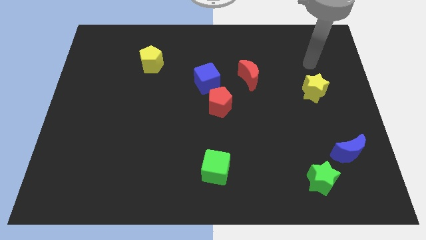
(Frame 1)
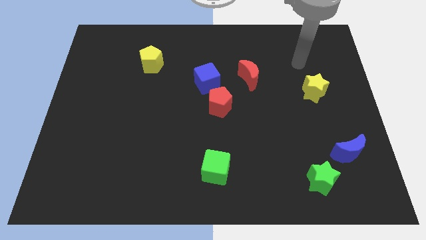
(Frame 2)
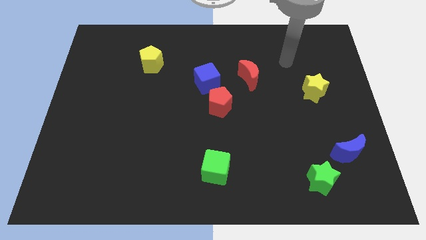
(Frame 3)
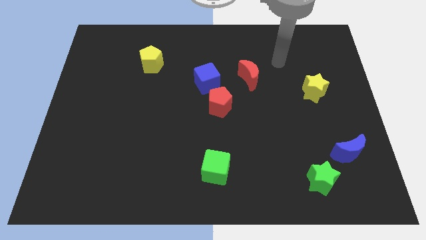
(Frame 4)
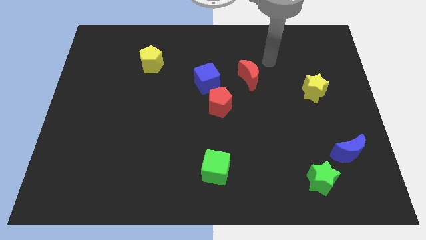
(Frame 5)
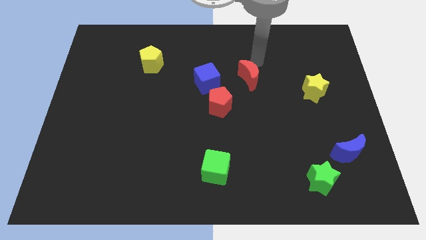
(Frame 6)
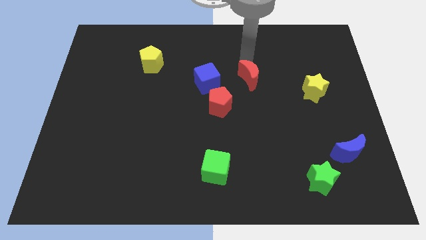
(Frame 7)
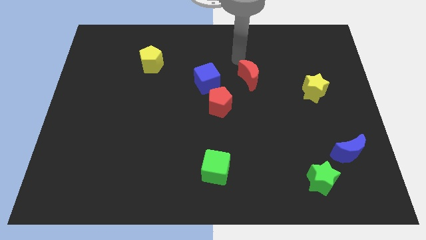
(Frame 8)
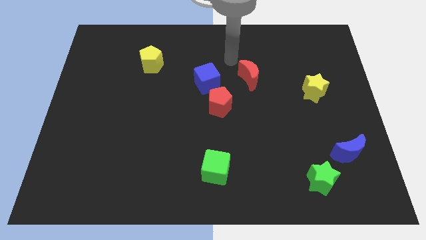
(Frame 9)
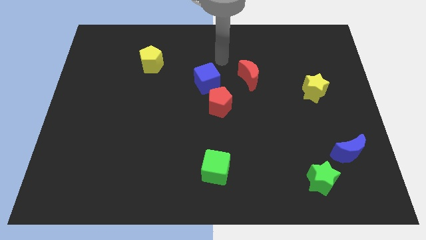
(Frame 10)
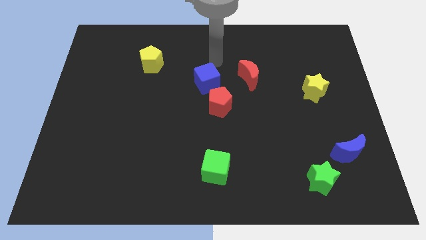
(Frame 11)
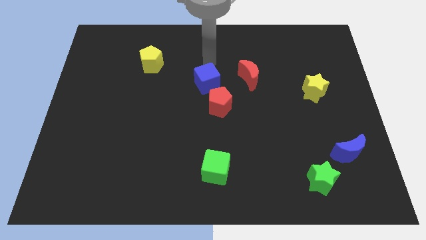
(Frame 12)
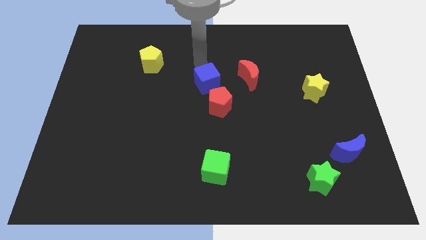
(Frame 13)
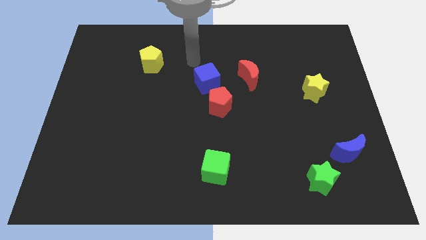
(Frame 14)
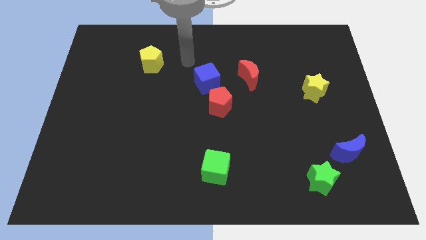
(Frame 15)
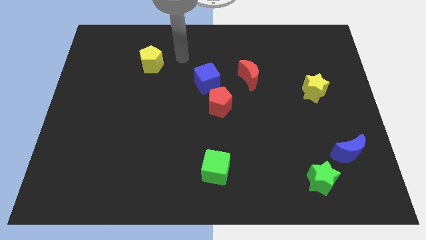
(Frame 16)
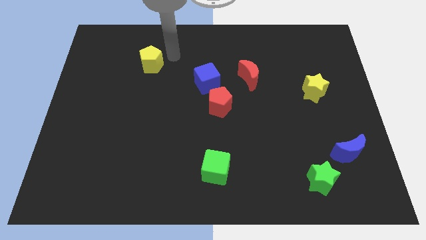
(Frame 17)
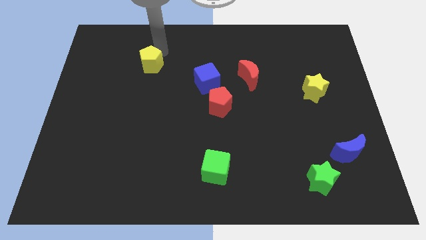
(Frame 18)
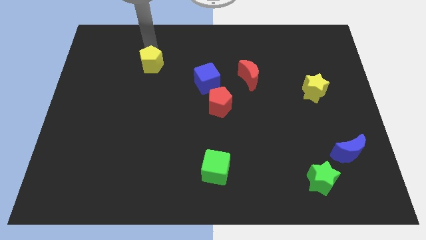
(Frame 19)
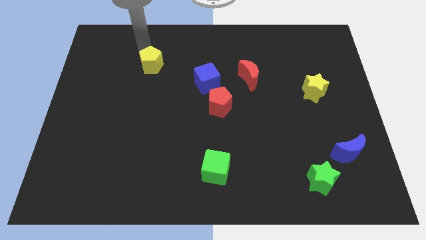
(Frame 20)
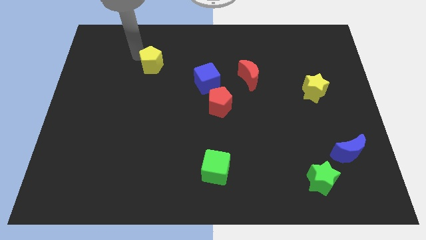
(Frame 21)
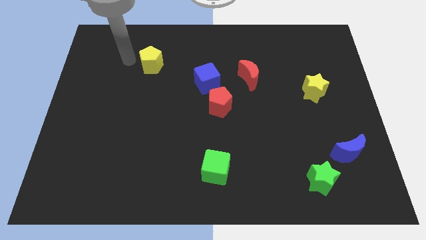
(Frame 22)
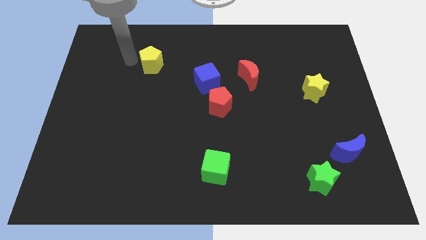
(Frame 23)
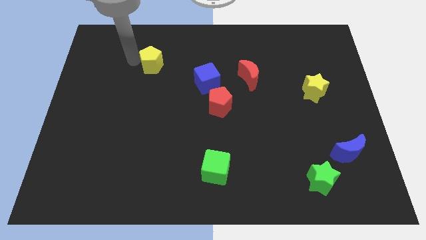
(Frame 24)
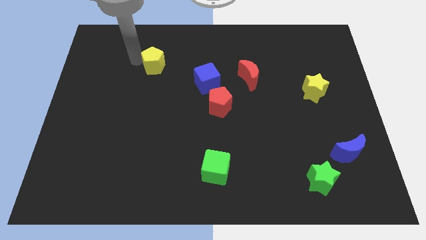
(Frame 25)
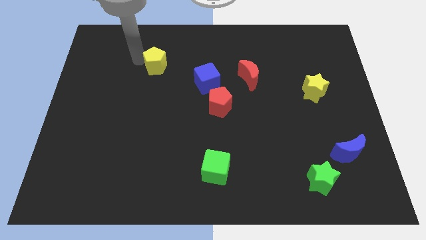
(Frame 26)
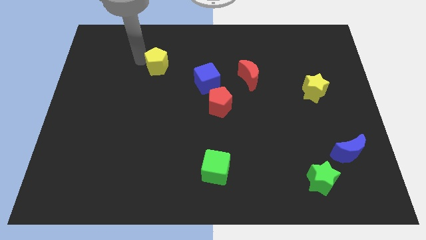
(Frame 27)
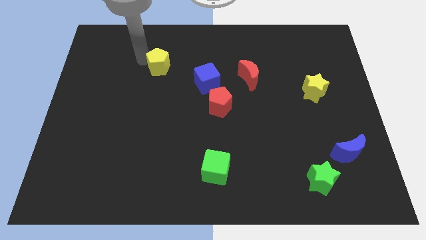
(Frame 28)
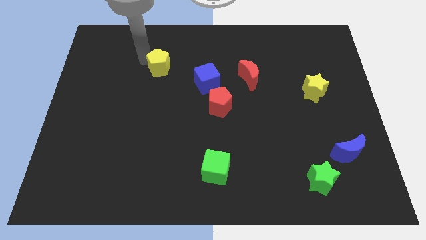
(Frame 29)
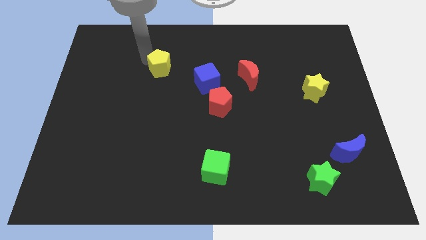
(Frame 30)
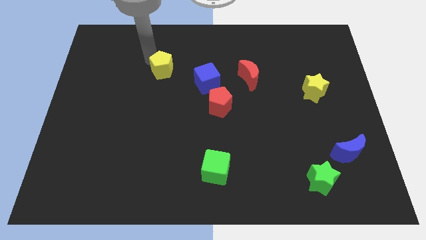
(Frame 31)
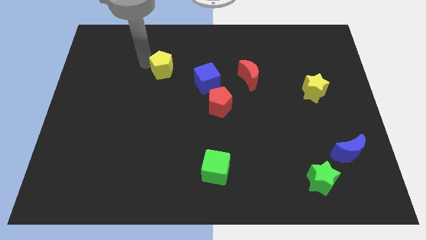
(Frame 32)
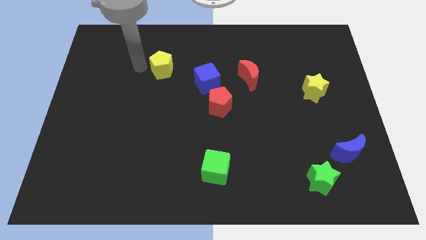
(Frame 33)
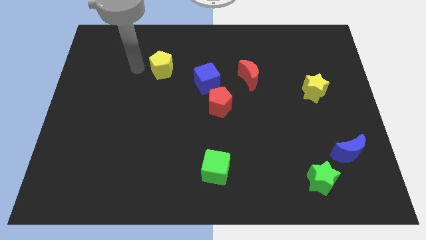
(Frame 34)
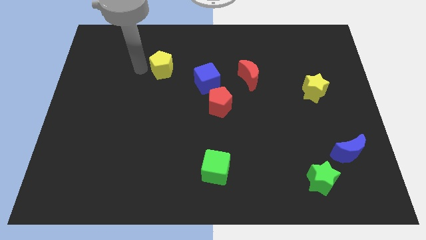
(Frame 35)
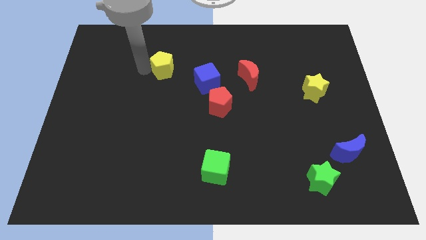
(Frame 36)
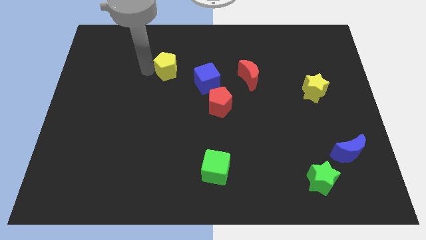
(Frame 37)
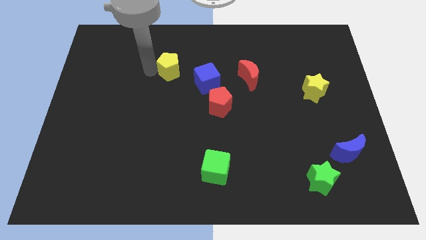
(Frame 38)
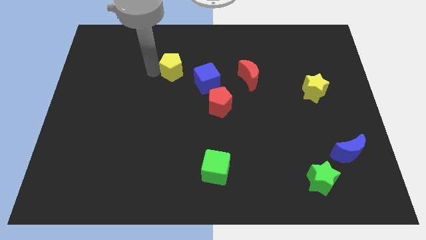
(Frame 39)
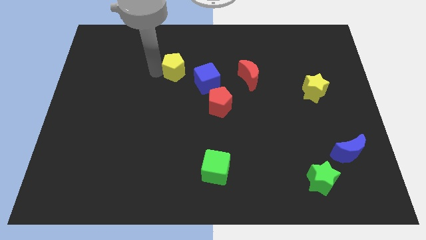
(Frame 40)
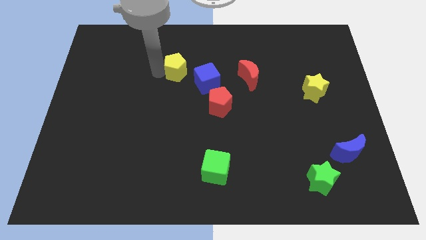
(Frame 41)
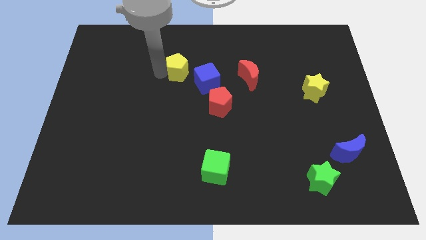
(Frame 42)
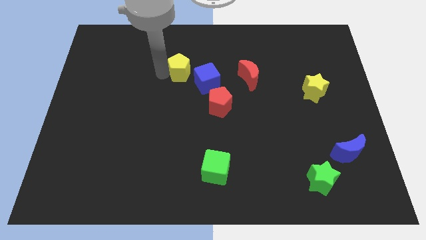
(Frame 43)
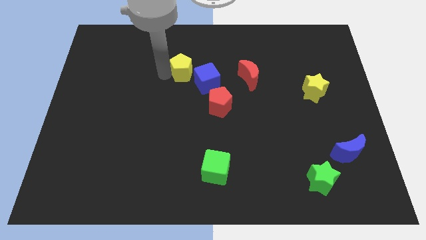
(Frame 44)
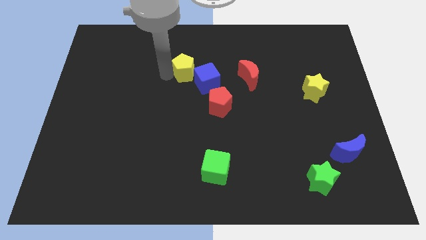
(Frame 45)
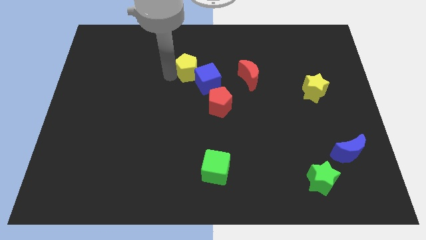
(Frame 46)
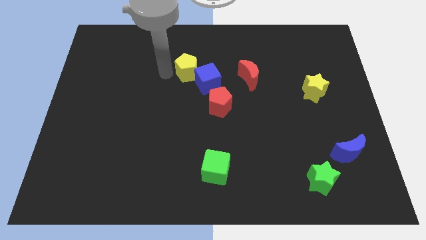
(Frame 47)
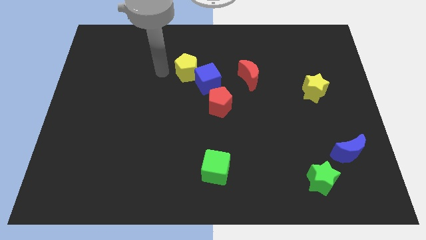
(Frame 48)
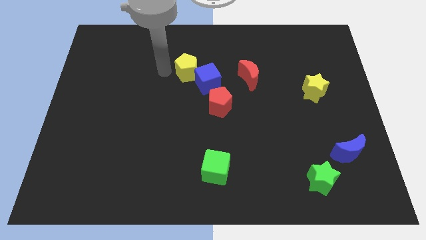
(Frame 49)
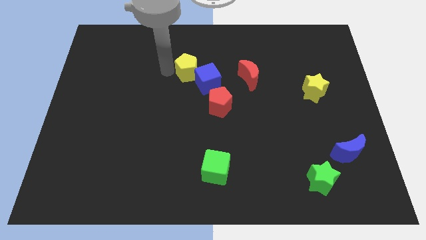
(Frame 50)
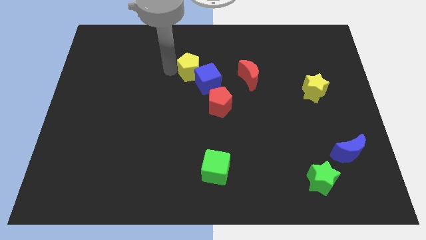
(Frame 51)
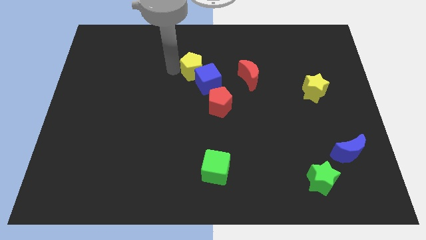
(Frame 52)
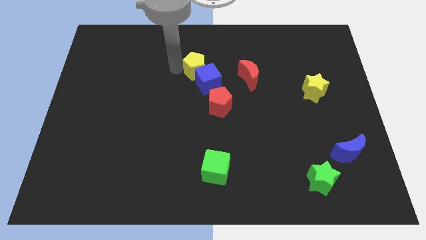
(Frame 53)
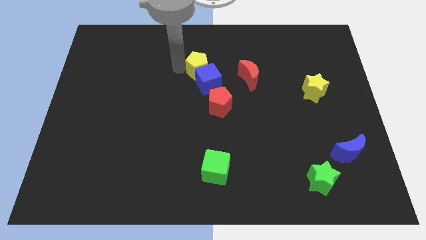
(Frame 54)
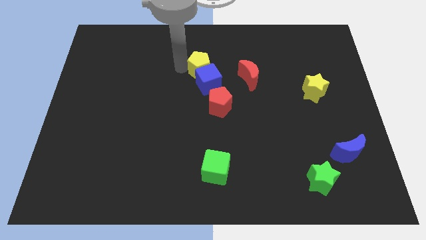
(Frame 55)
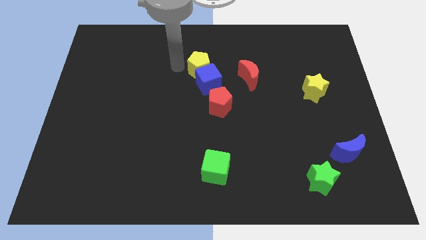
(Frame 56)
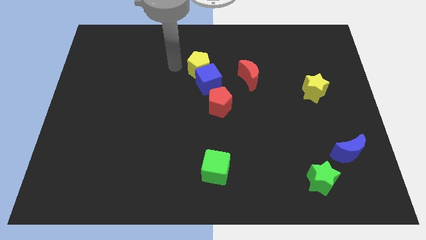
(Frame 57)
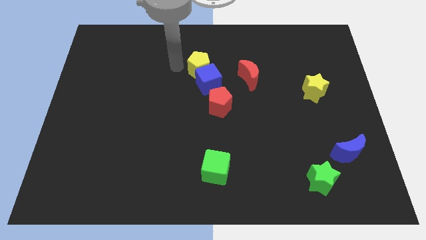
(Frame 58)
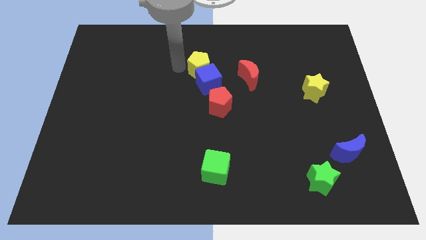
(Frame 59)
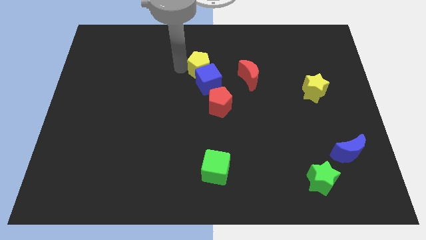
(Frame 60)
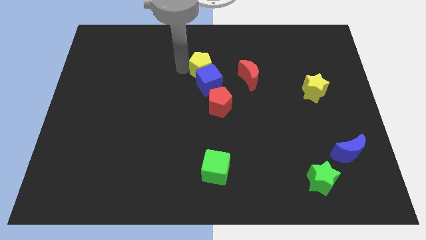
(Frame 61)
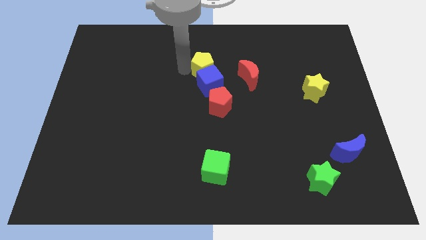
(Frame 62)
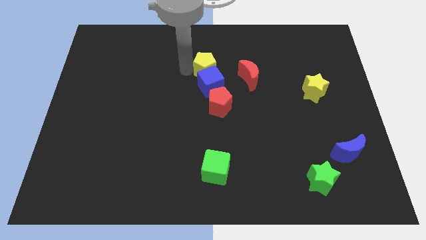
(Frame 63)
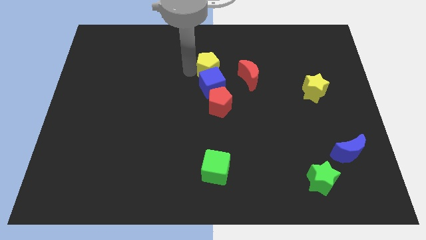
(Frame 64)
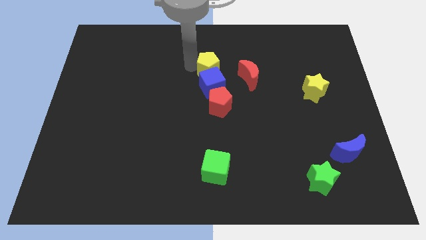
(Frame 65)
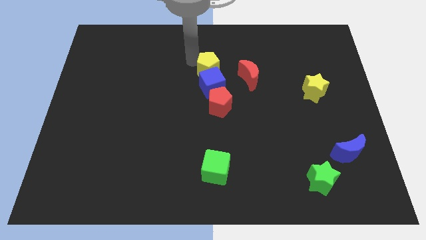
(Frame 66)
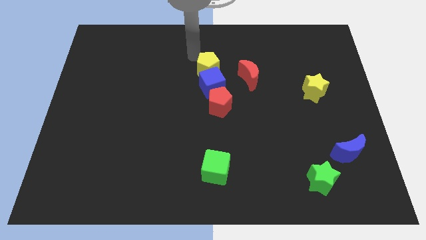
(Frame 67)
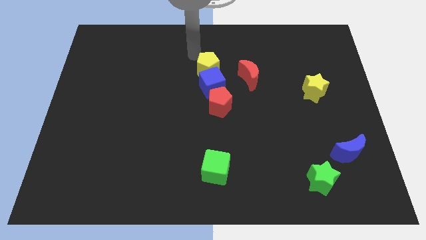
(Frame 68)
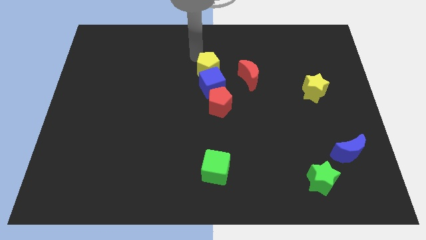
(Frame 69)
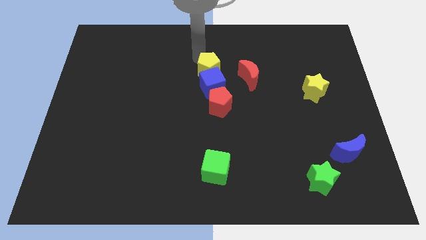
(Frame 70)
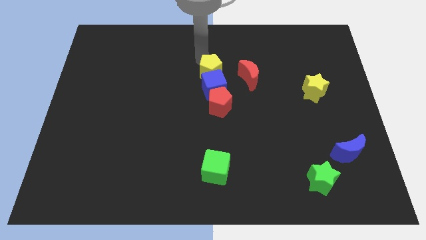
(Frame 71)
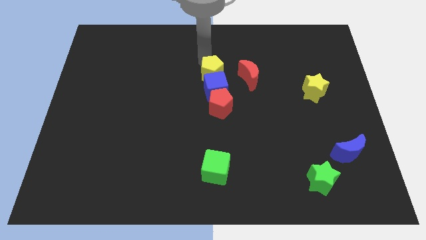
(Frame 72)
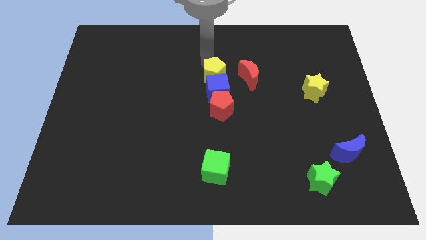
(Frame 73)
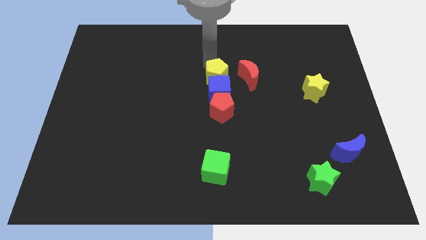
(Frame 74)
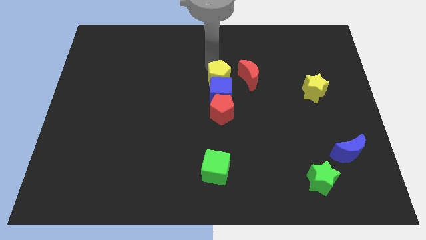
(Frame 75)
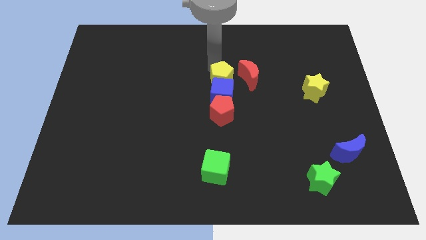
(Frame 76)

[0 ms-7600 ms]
slide the yellow pentagon diagonally down and to the left of the red moon

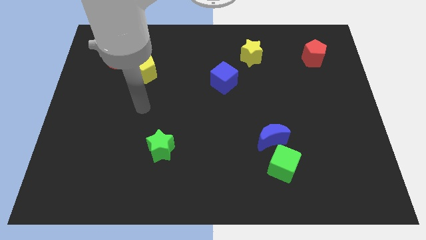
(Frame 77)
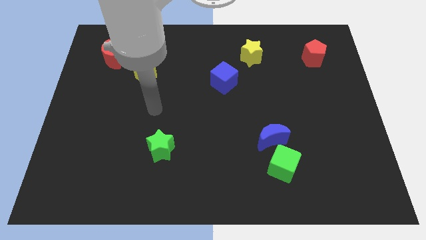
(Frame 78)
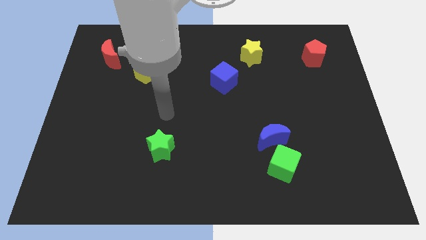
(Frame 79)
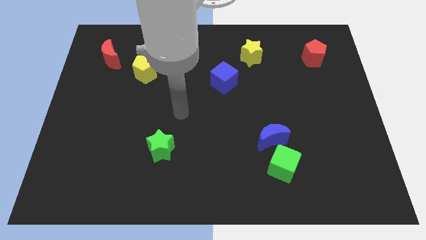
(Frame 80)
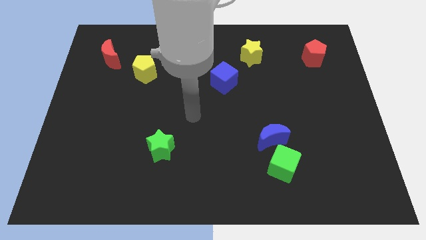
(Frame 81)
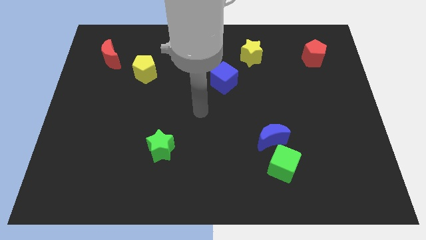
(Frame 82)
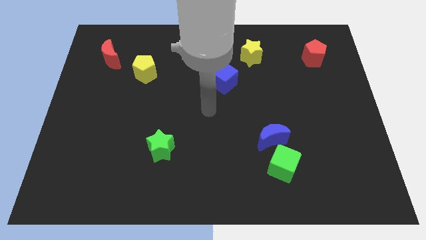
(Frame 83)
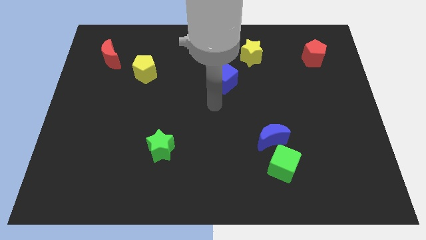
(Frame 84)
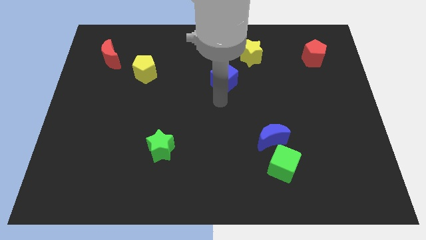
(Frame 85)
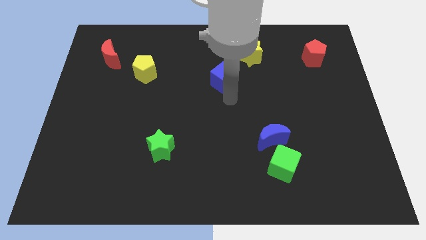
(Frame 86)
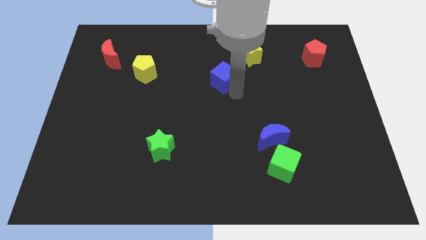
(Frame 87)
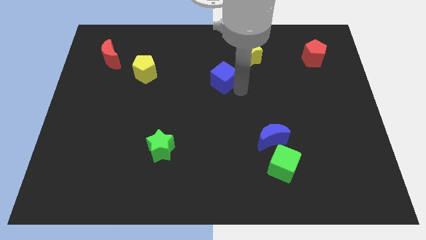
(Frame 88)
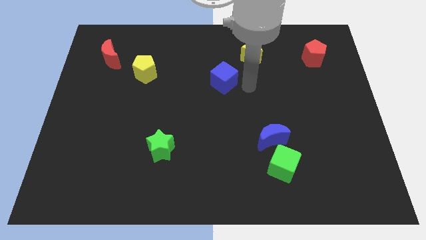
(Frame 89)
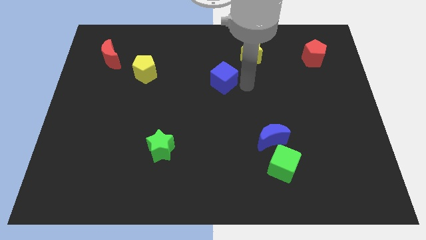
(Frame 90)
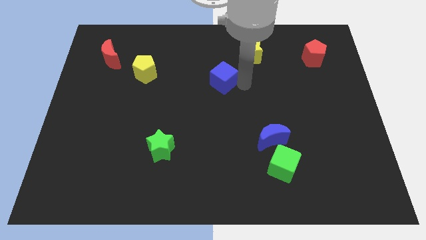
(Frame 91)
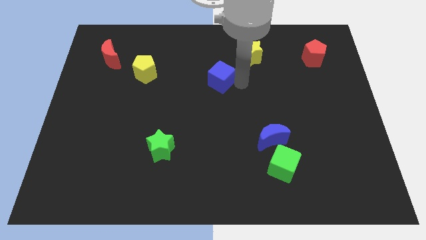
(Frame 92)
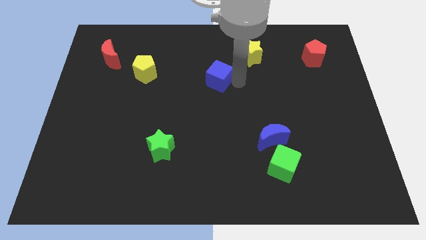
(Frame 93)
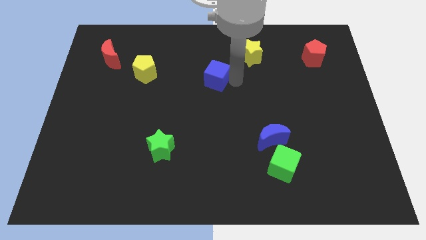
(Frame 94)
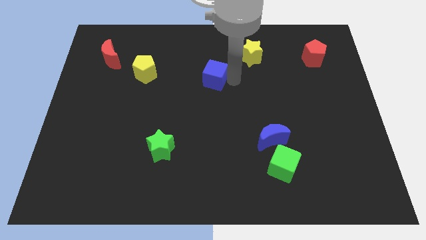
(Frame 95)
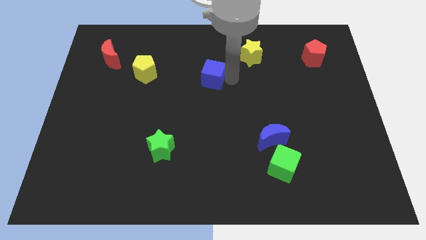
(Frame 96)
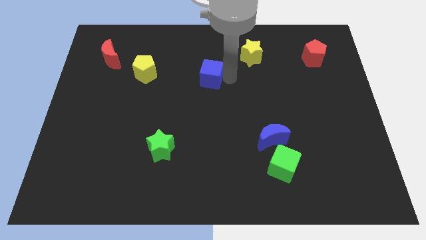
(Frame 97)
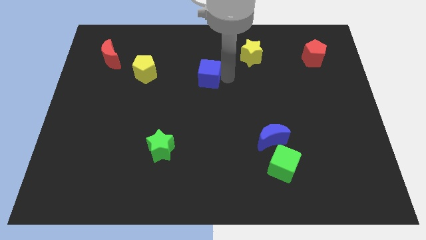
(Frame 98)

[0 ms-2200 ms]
push the blue cube to the right side of the yellow pentagon
